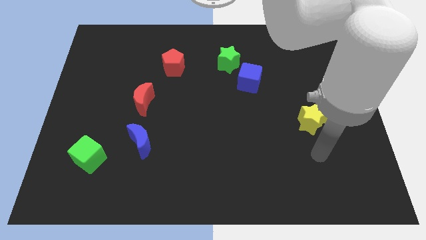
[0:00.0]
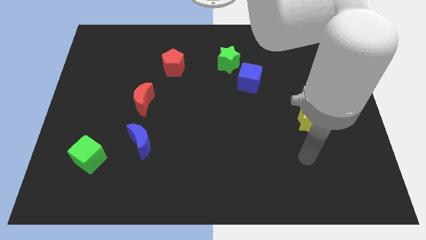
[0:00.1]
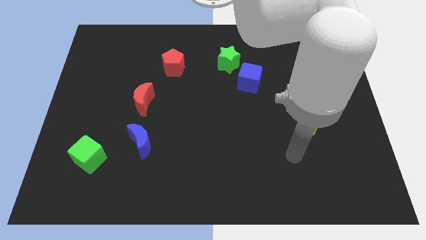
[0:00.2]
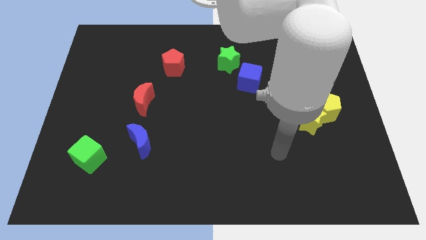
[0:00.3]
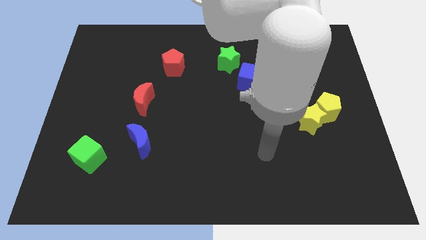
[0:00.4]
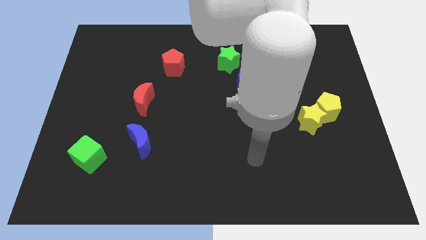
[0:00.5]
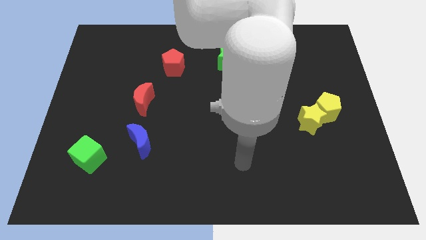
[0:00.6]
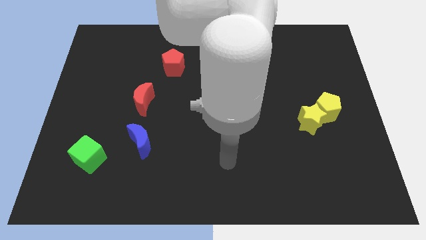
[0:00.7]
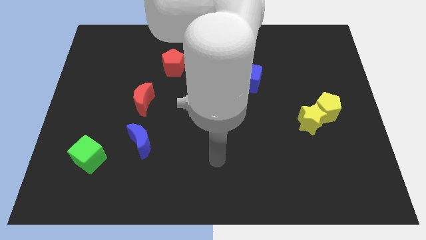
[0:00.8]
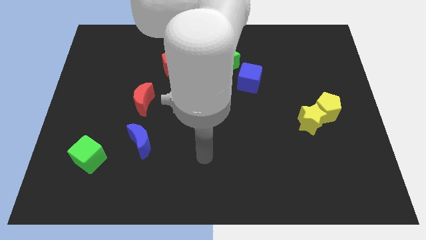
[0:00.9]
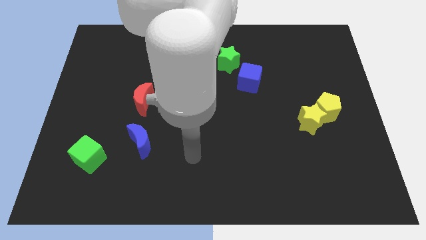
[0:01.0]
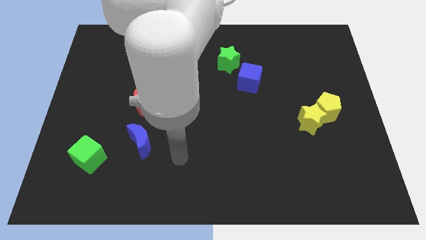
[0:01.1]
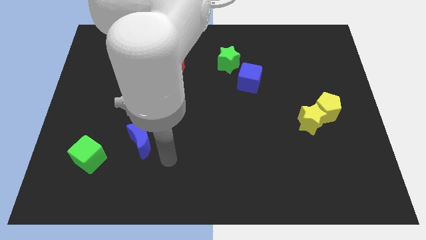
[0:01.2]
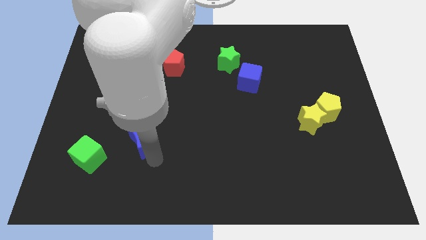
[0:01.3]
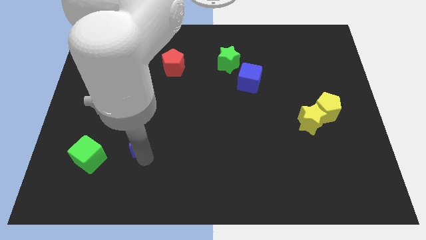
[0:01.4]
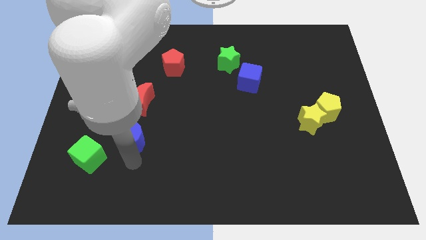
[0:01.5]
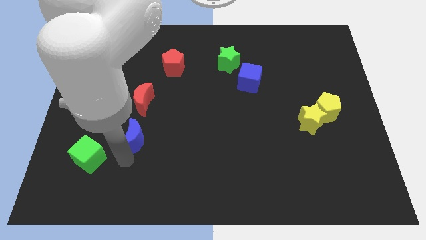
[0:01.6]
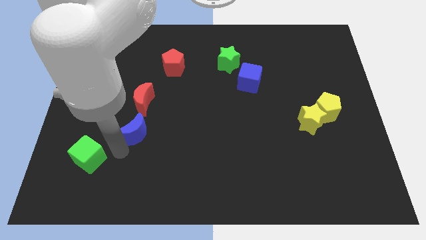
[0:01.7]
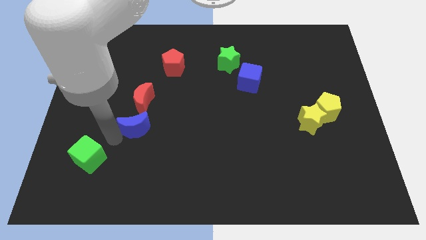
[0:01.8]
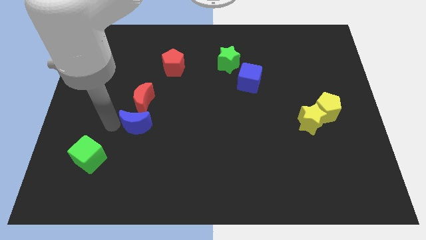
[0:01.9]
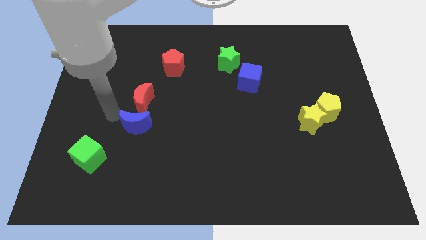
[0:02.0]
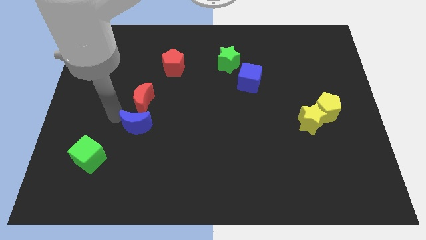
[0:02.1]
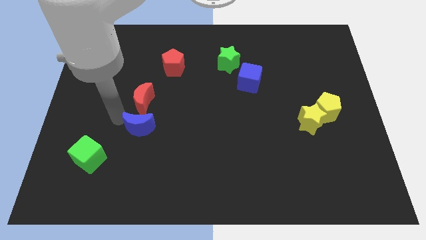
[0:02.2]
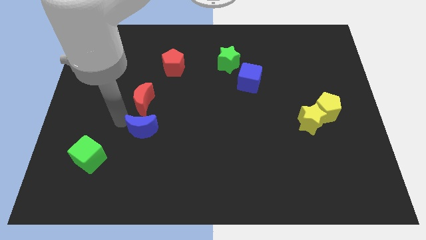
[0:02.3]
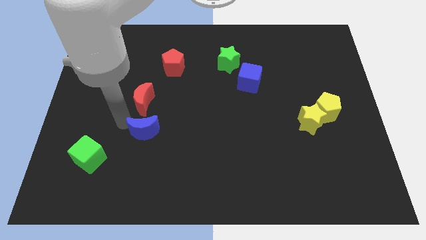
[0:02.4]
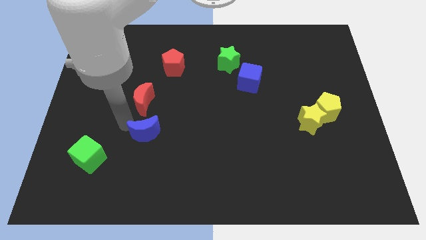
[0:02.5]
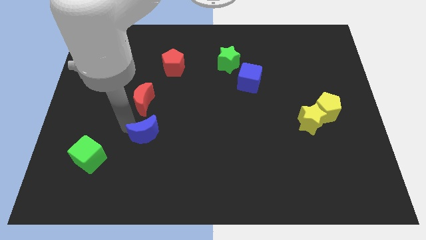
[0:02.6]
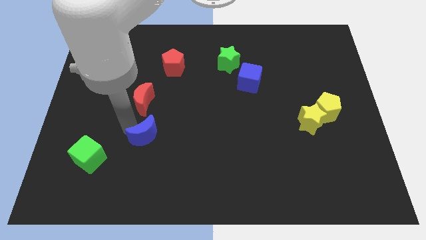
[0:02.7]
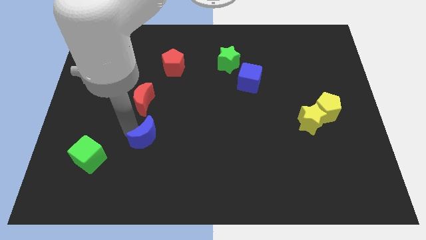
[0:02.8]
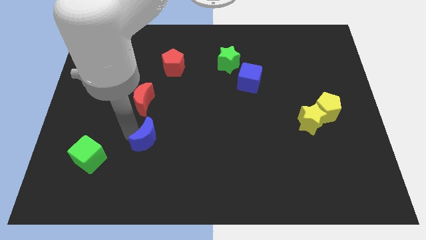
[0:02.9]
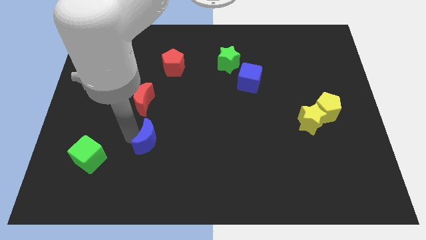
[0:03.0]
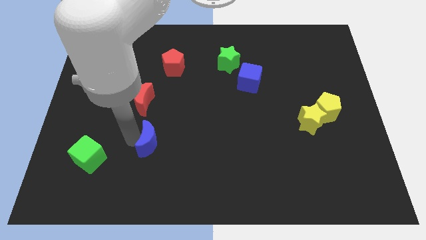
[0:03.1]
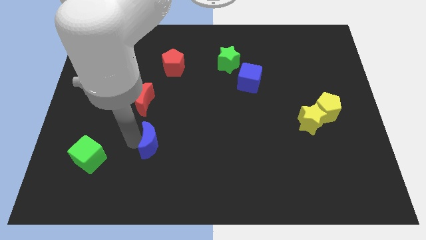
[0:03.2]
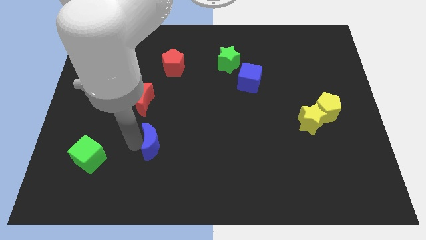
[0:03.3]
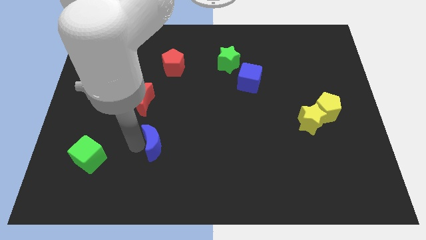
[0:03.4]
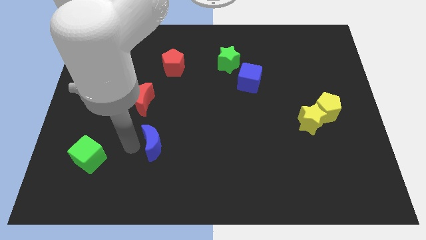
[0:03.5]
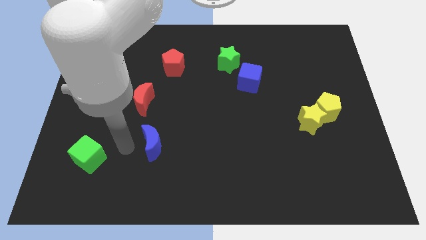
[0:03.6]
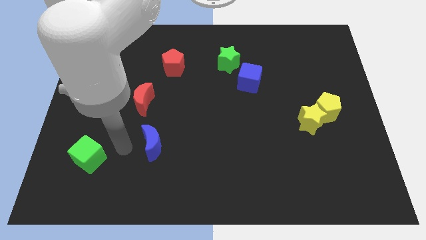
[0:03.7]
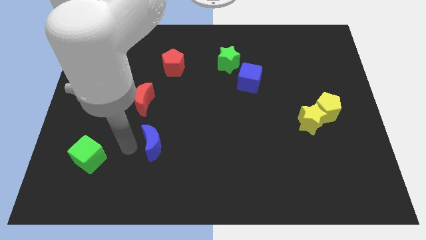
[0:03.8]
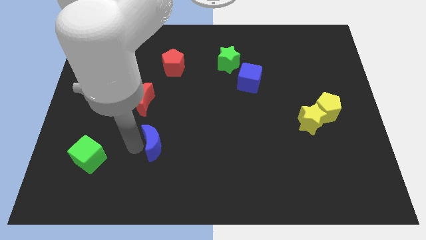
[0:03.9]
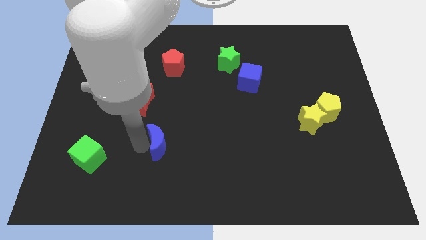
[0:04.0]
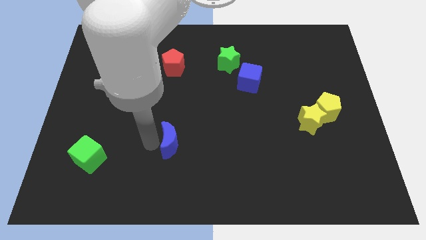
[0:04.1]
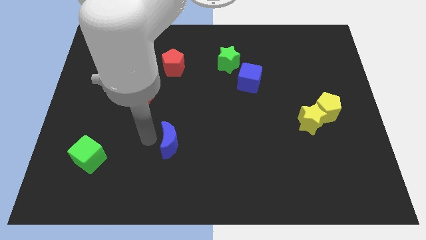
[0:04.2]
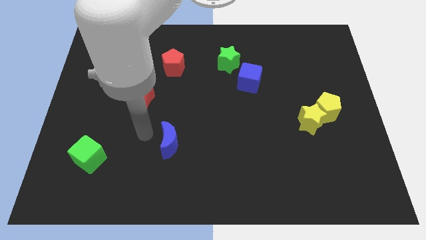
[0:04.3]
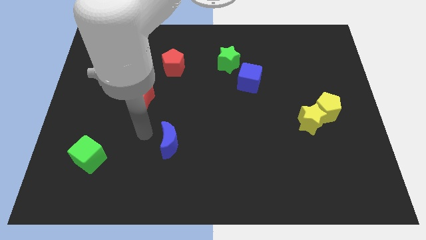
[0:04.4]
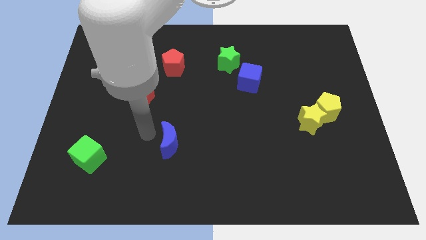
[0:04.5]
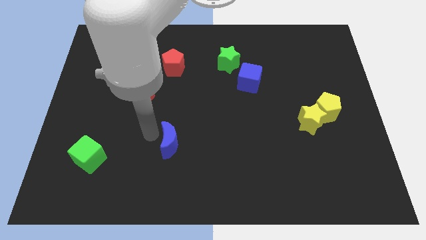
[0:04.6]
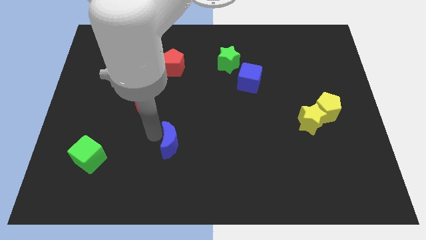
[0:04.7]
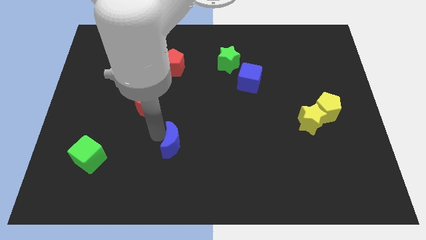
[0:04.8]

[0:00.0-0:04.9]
move the blue moon right a bit

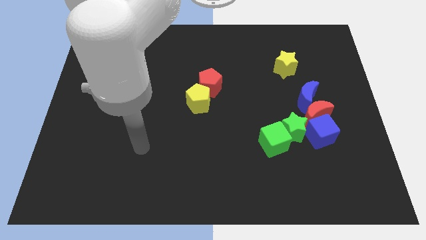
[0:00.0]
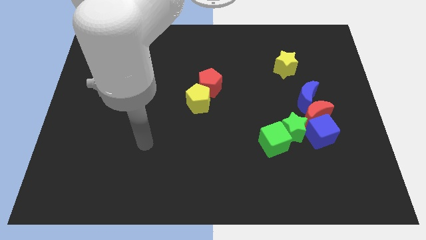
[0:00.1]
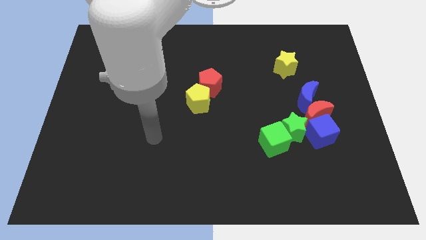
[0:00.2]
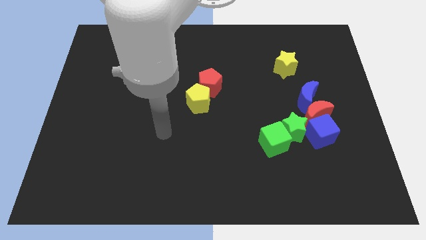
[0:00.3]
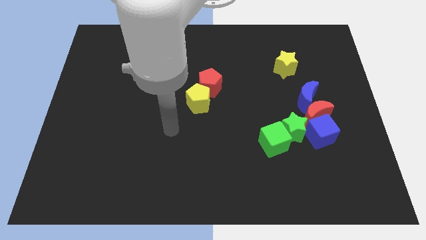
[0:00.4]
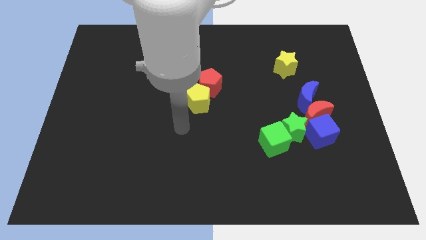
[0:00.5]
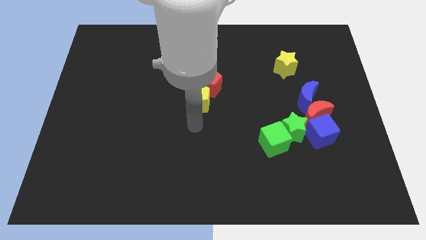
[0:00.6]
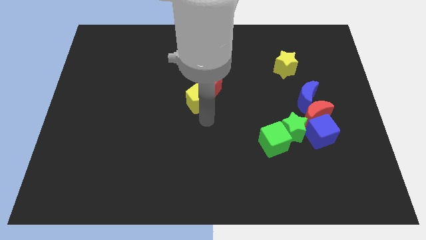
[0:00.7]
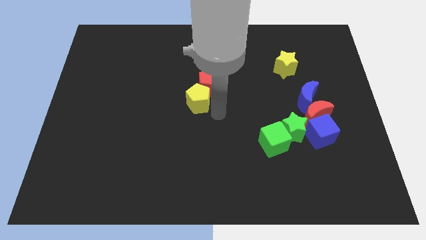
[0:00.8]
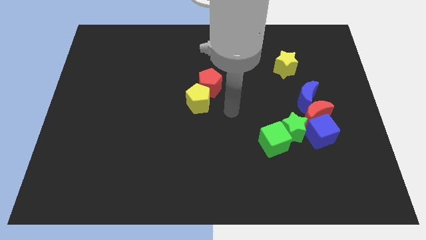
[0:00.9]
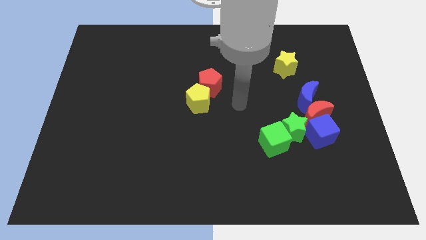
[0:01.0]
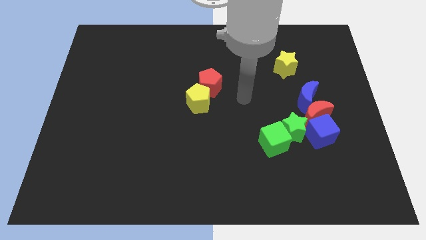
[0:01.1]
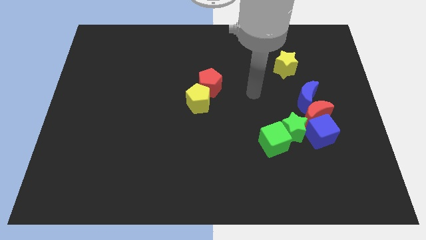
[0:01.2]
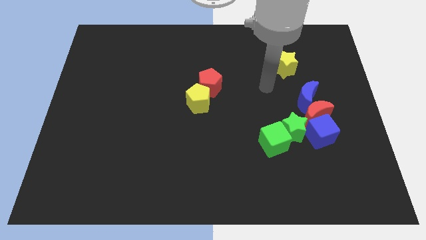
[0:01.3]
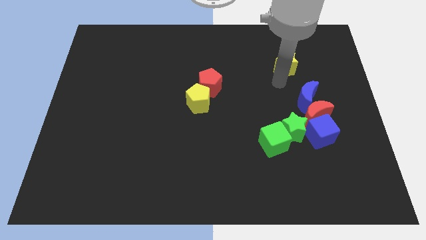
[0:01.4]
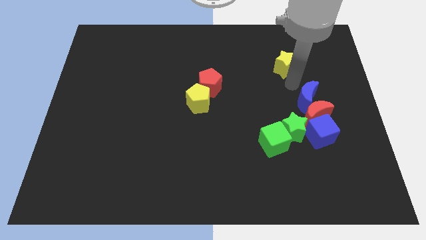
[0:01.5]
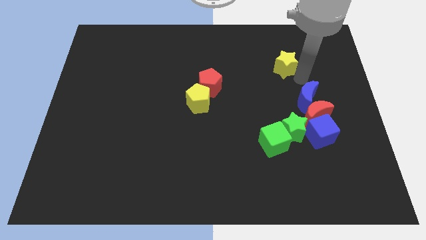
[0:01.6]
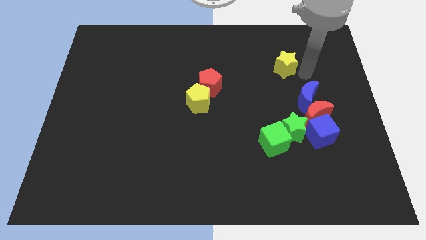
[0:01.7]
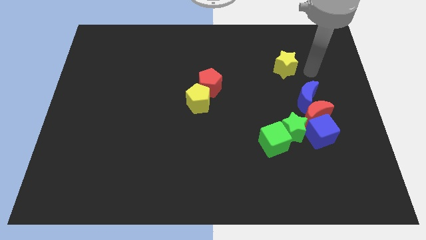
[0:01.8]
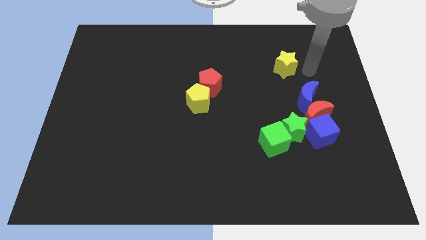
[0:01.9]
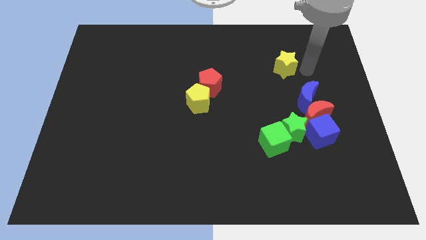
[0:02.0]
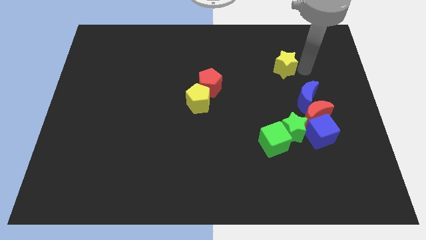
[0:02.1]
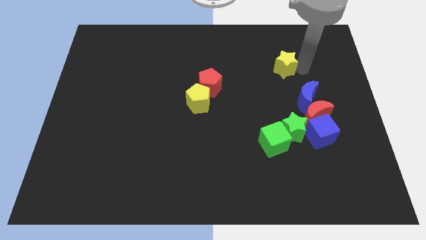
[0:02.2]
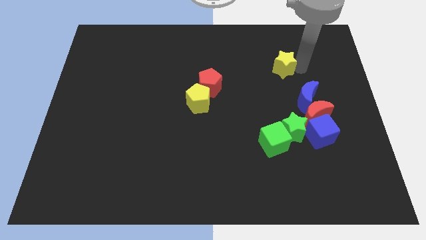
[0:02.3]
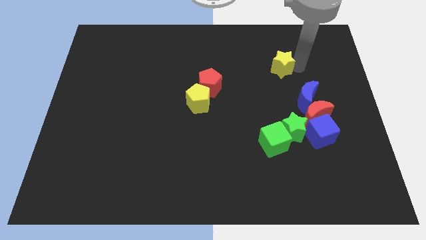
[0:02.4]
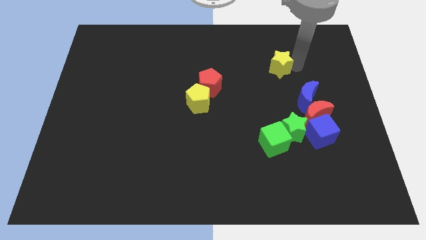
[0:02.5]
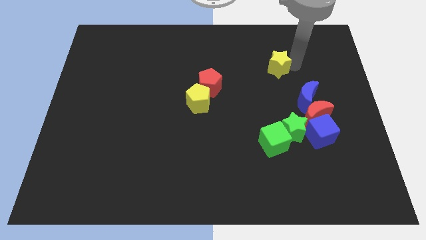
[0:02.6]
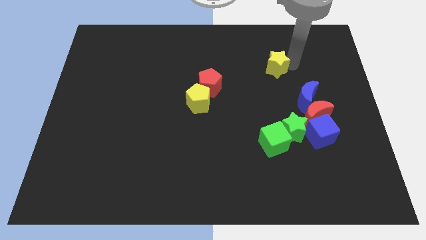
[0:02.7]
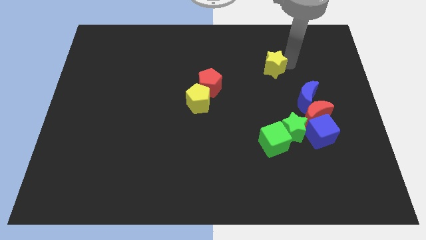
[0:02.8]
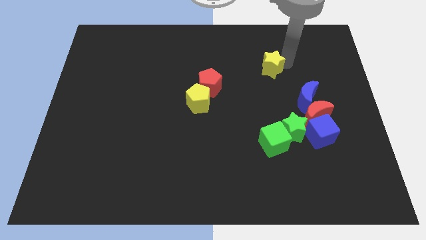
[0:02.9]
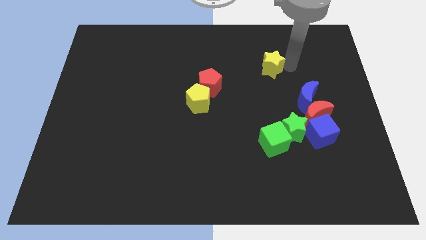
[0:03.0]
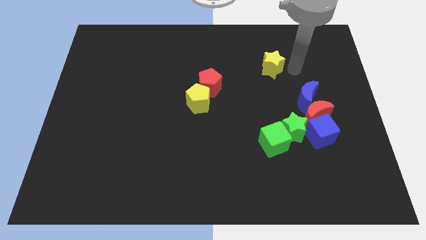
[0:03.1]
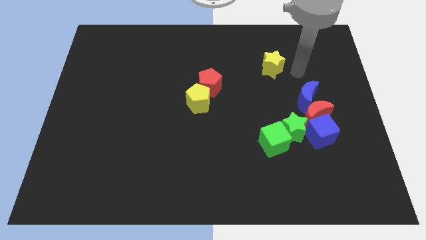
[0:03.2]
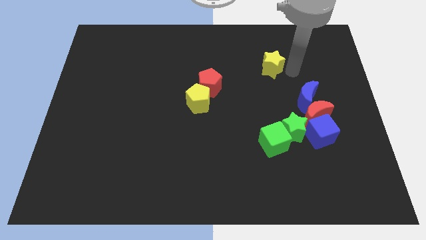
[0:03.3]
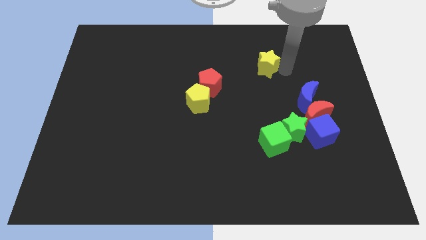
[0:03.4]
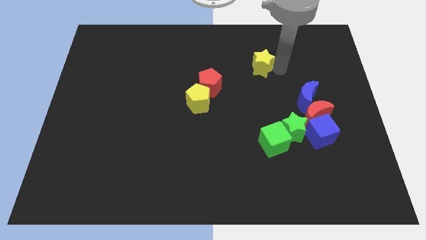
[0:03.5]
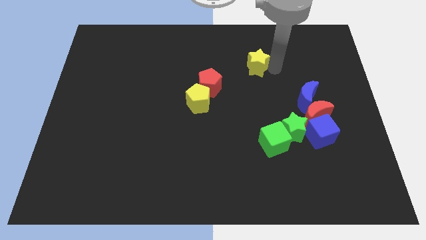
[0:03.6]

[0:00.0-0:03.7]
slightly slide the yellow star left
